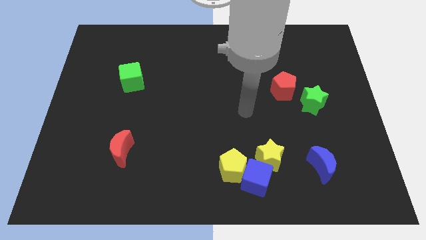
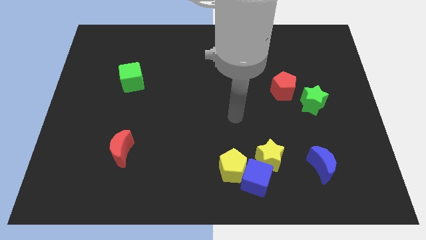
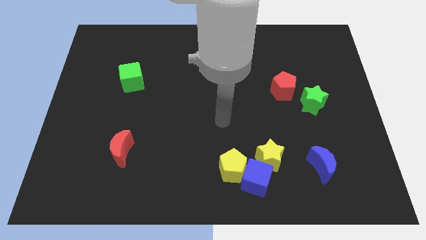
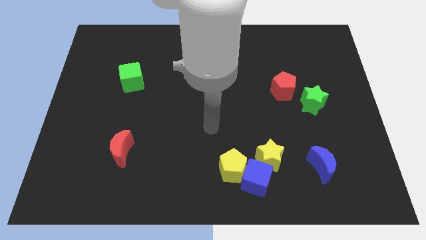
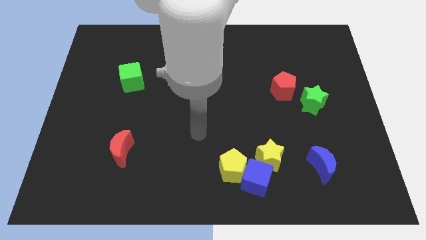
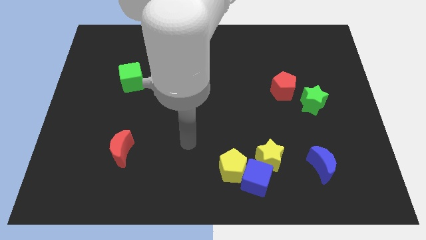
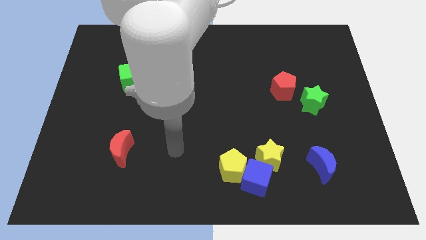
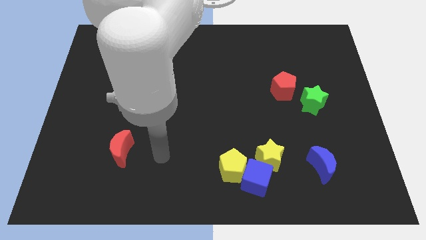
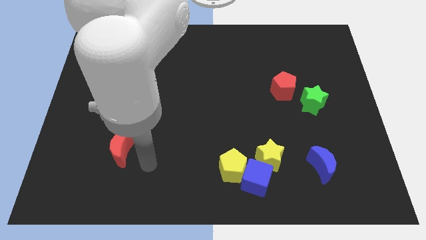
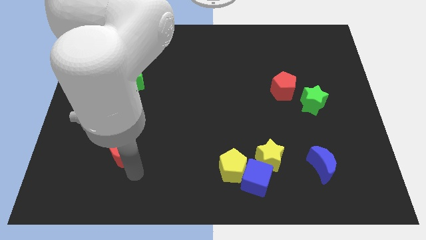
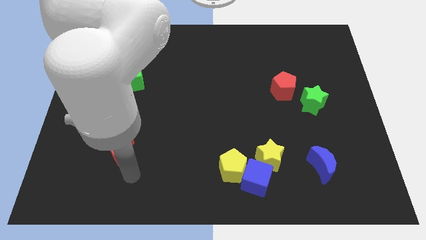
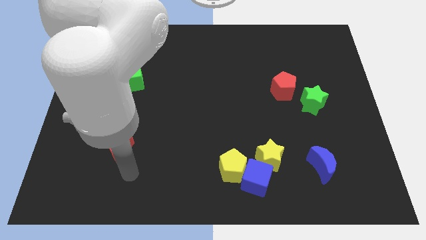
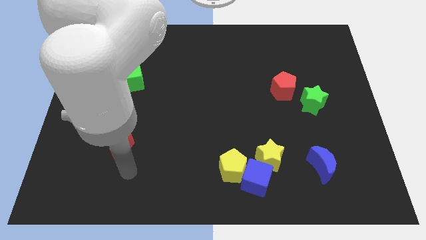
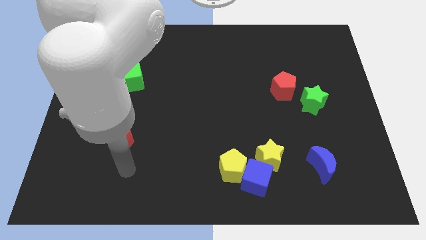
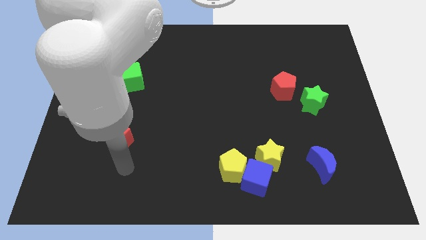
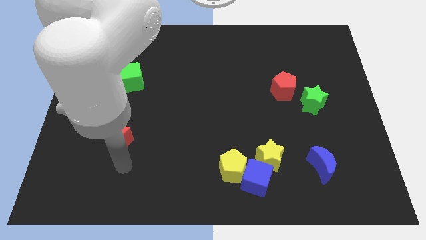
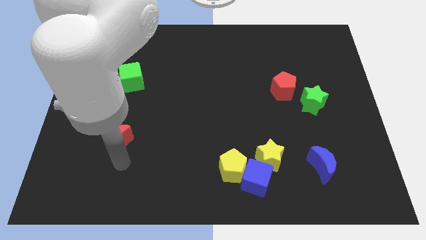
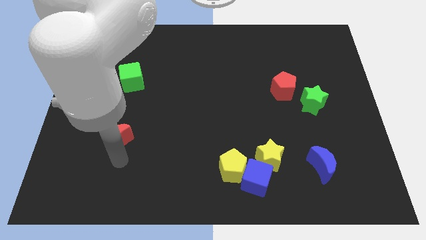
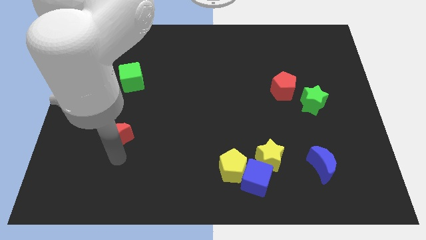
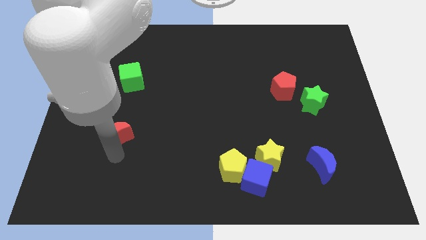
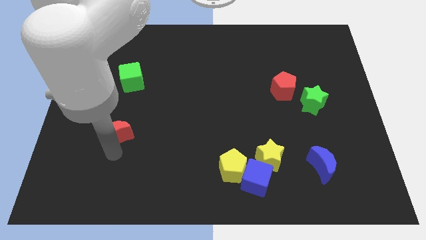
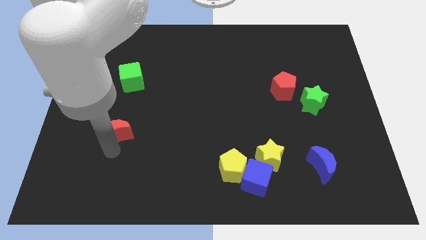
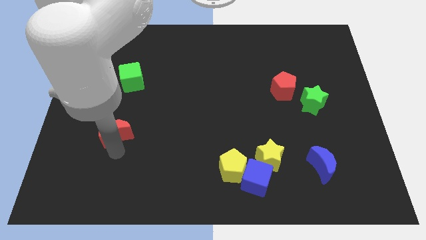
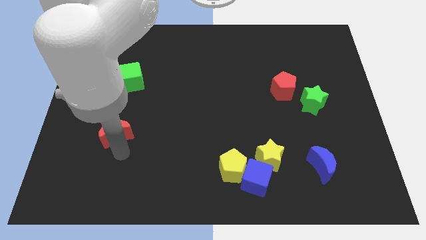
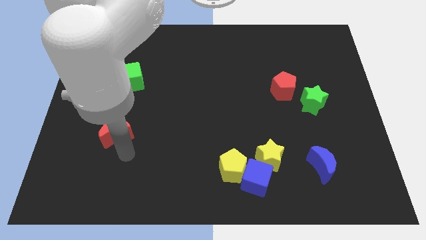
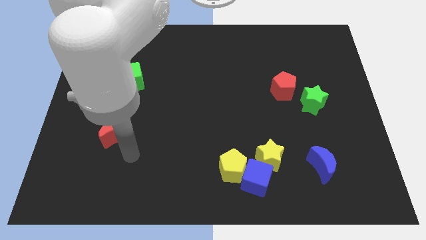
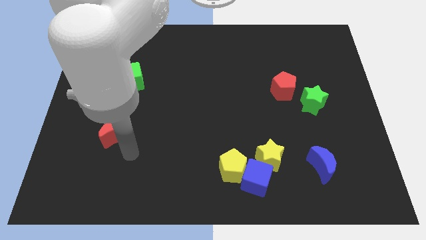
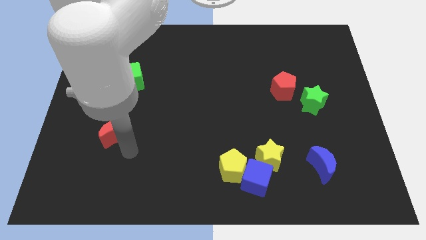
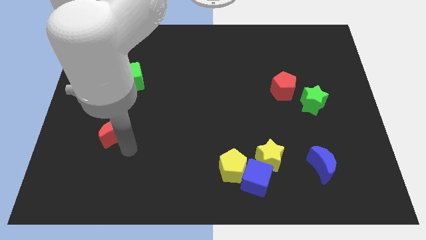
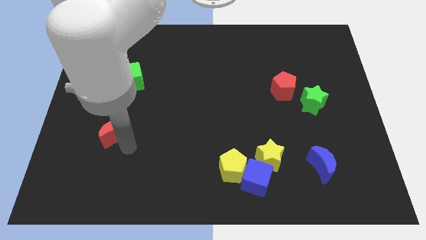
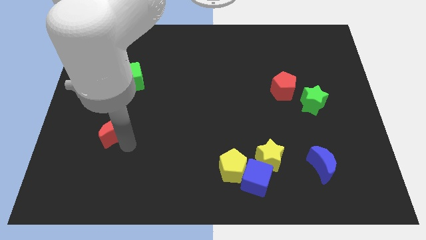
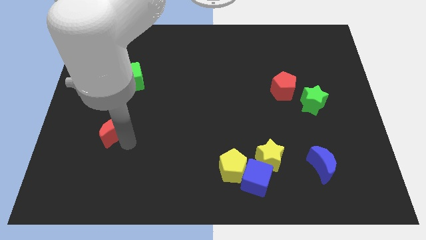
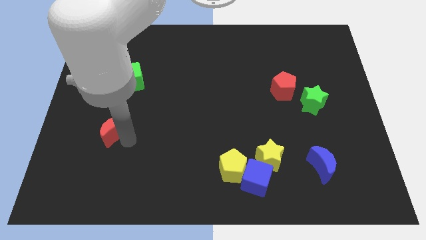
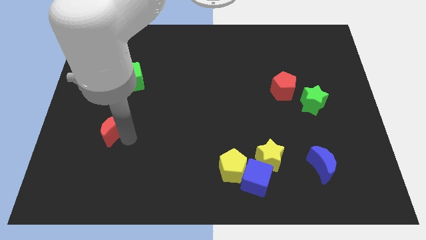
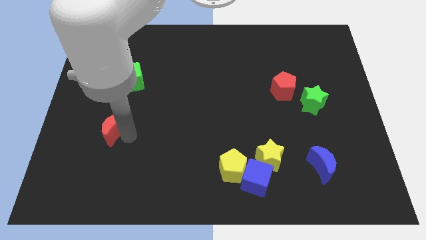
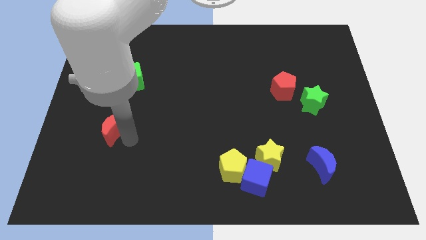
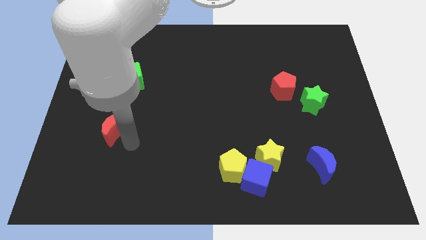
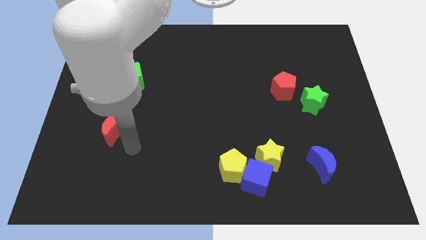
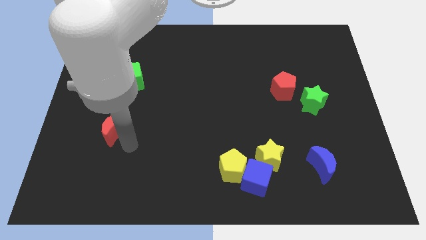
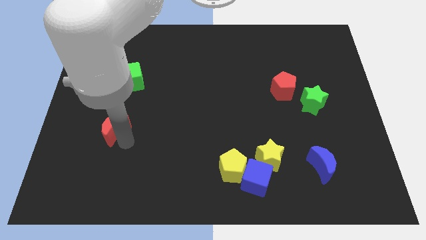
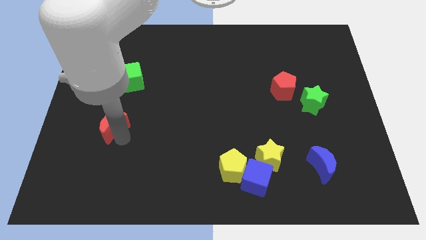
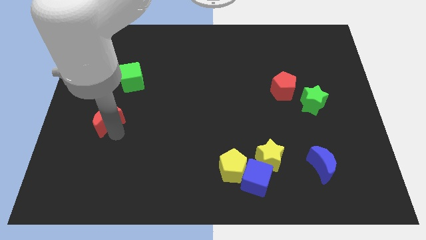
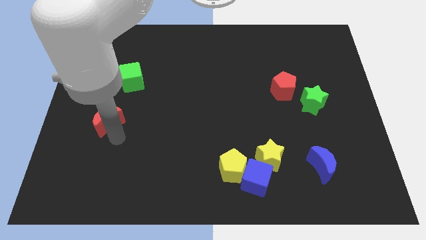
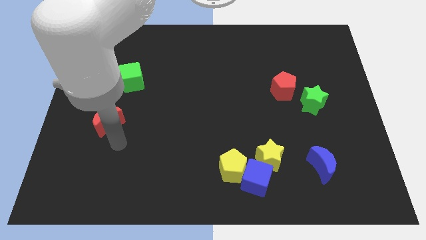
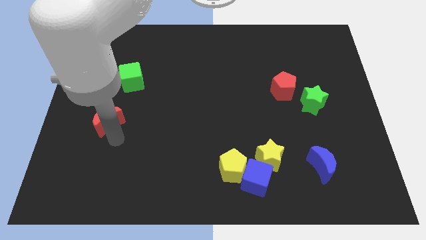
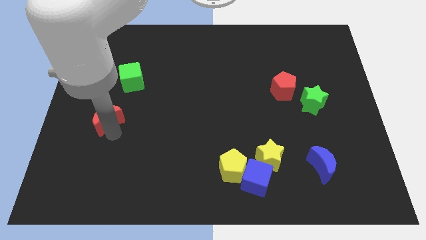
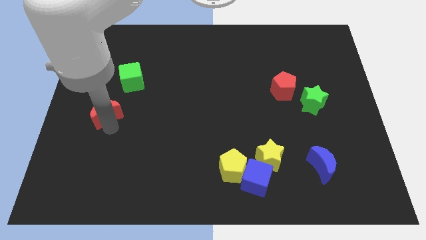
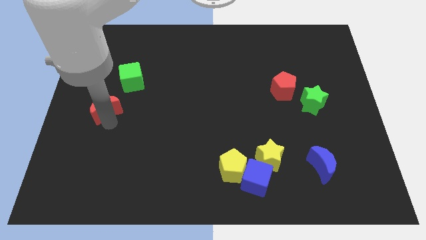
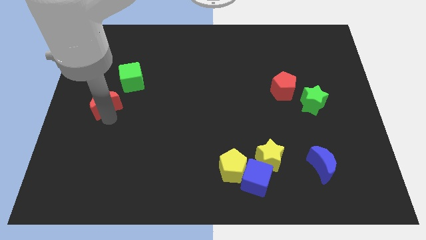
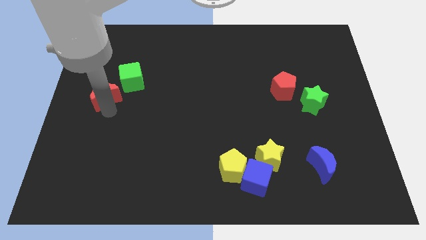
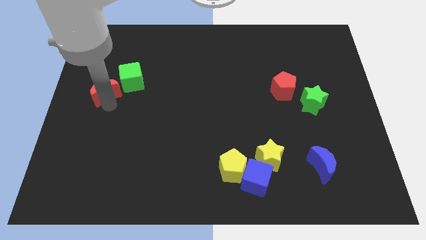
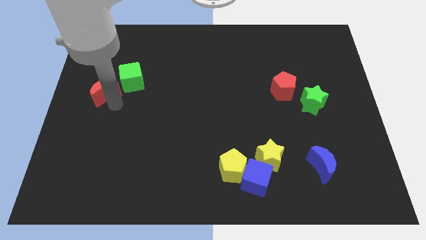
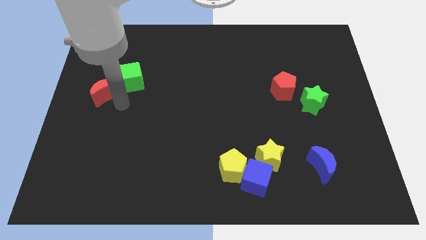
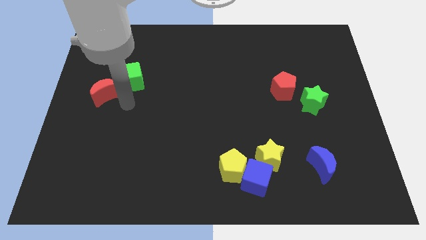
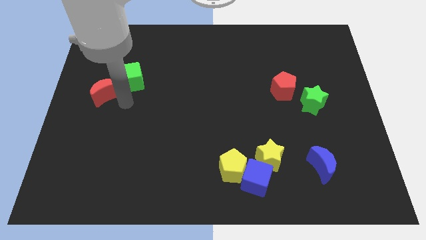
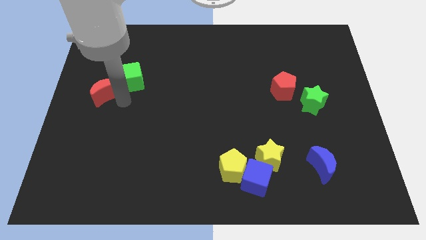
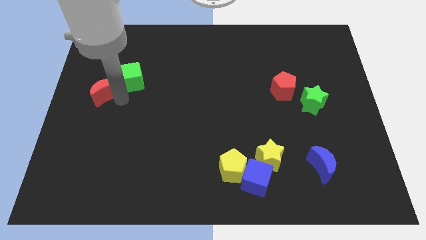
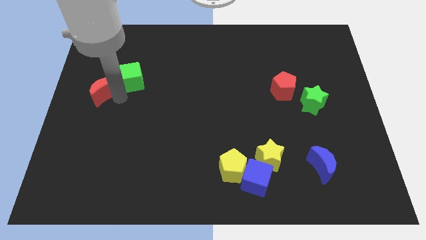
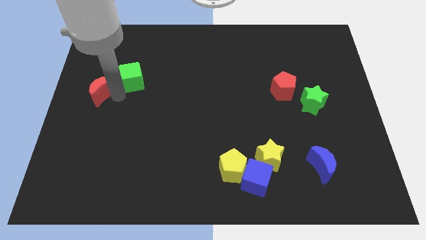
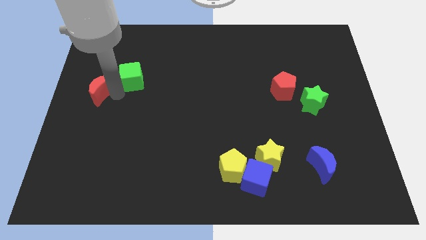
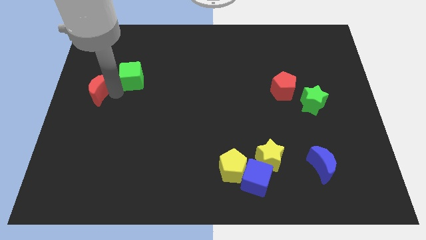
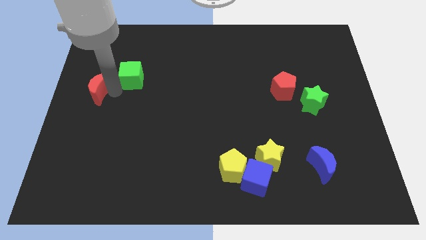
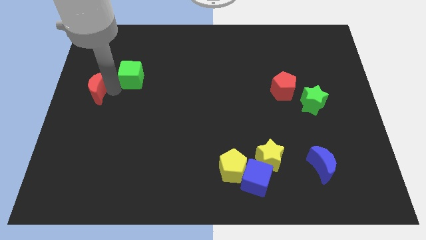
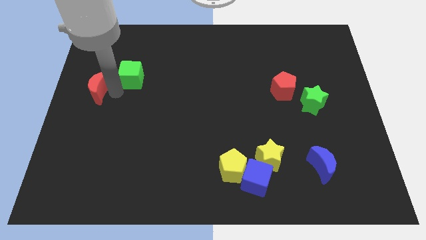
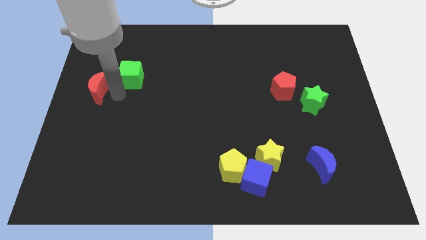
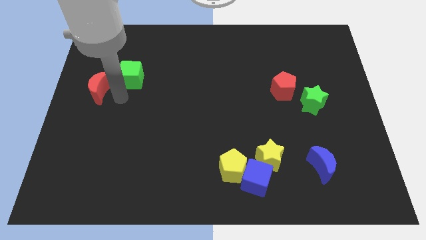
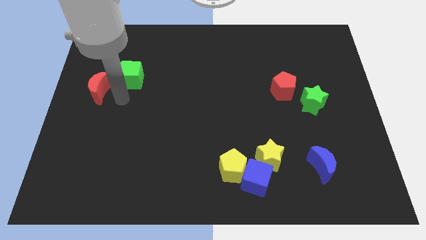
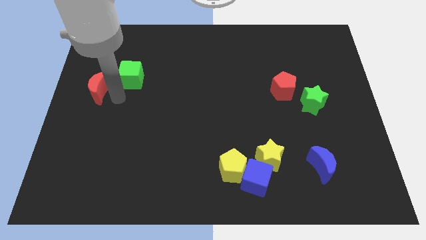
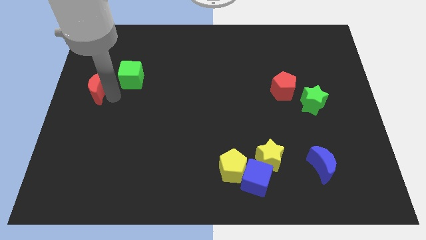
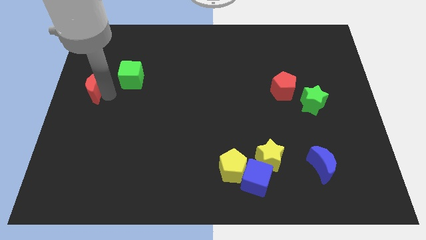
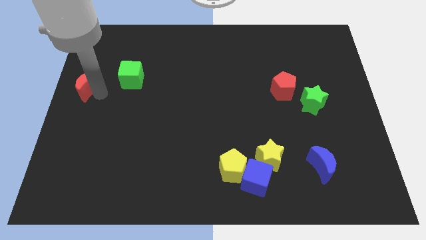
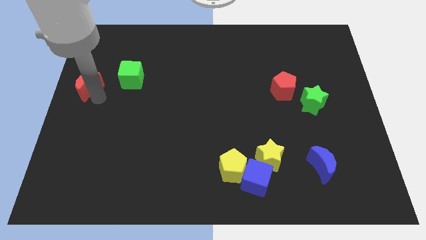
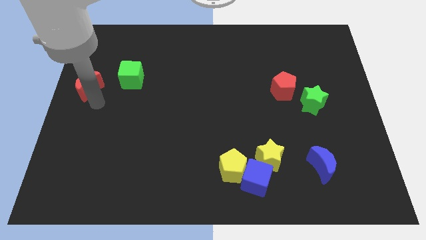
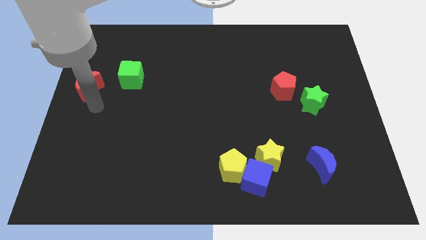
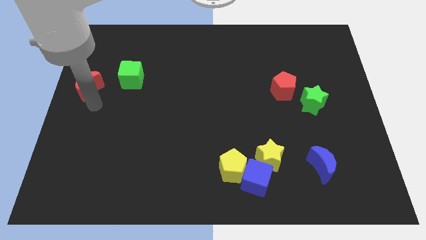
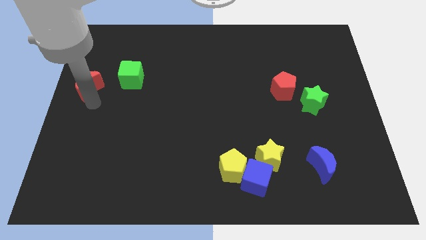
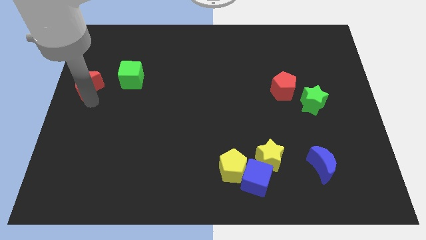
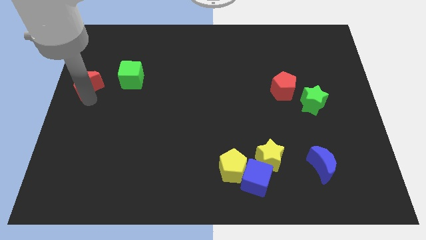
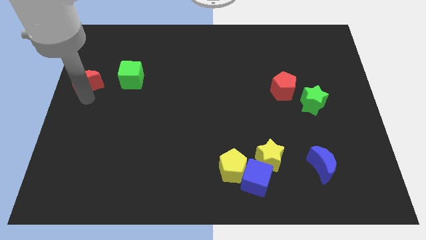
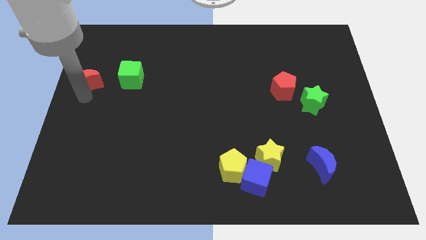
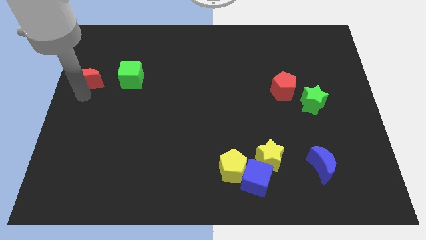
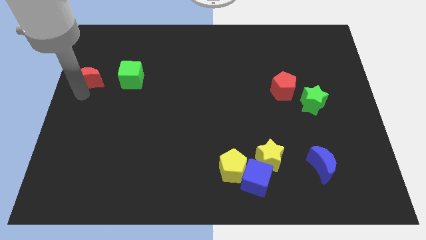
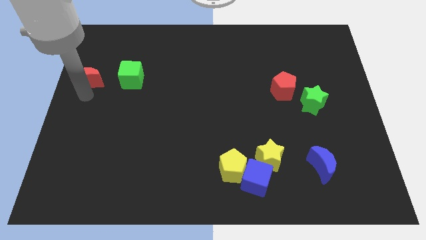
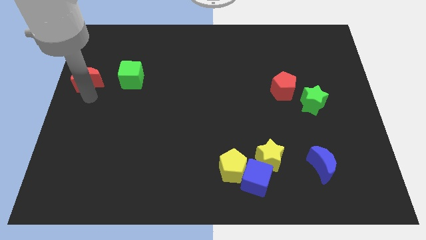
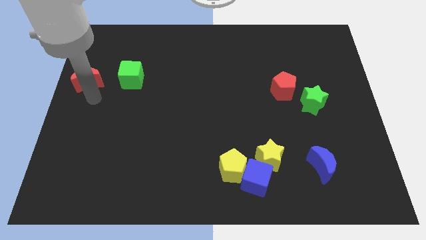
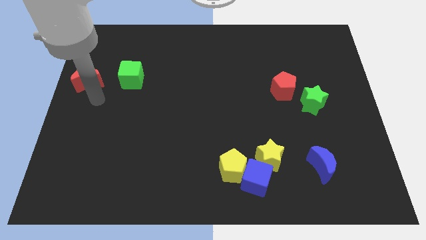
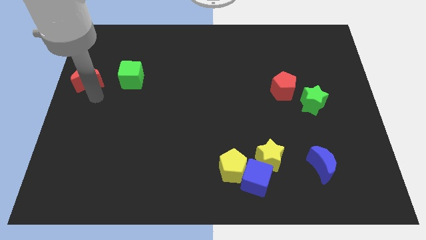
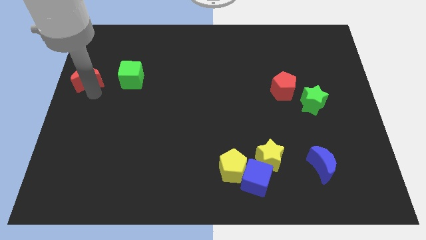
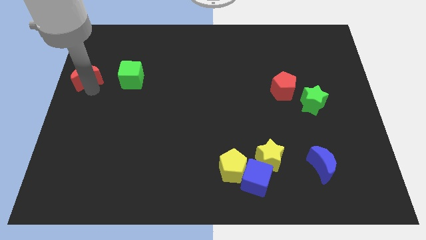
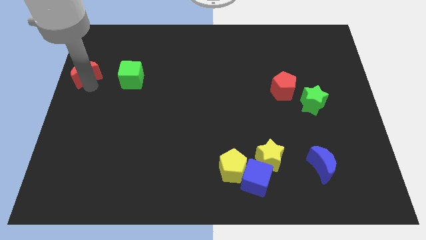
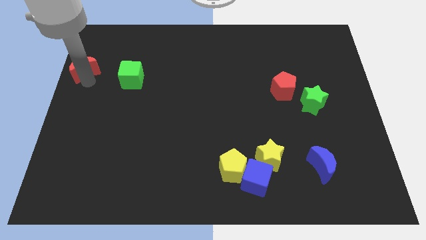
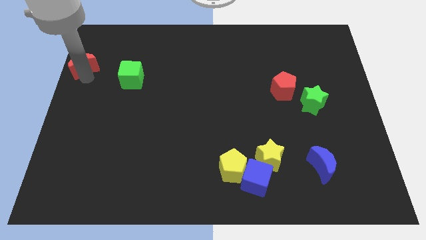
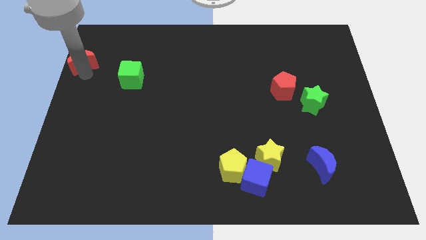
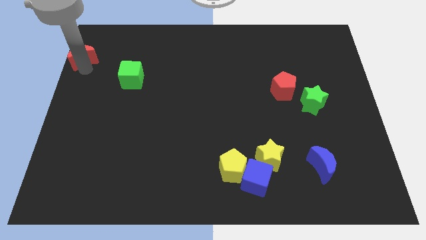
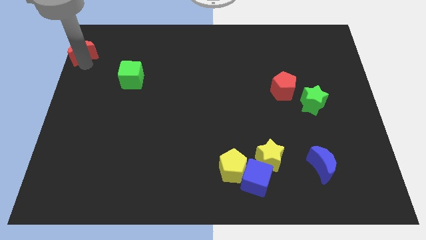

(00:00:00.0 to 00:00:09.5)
move the red moon to the top left corner
